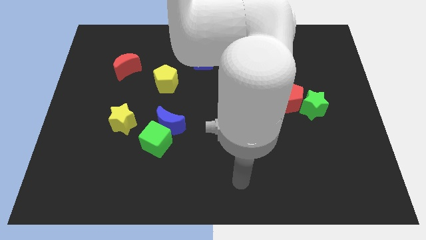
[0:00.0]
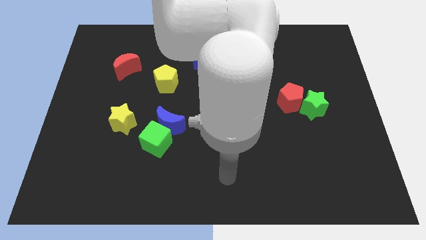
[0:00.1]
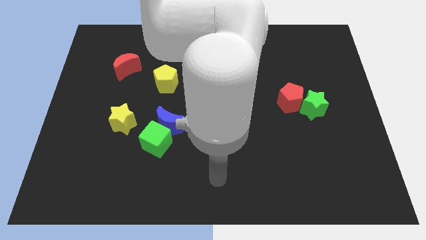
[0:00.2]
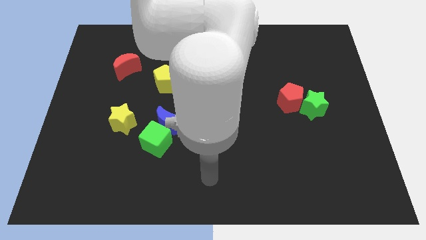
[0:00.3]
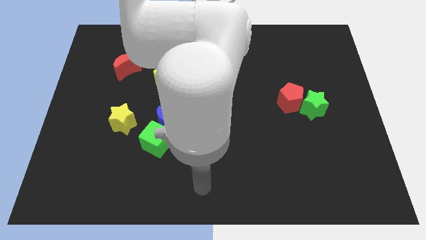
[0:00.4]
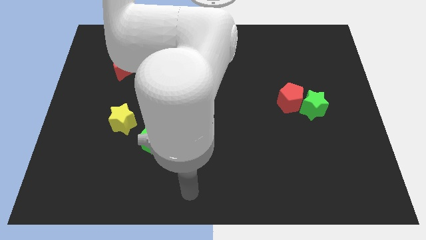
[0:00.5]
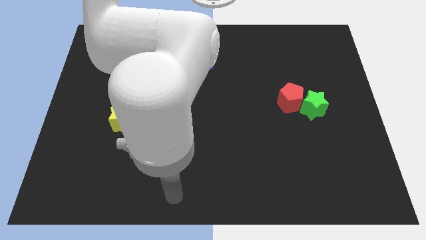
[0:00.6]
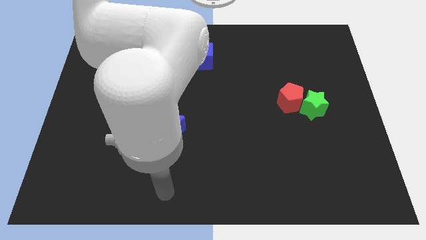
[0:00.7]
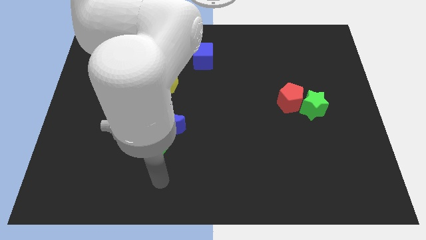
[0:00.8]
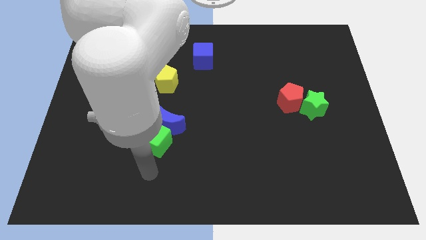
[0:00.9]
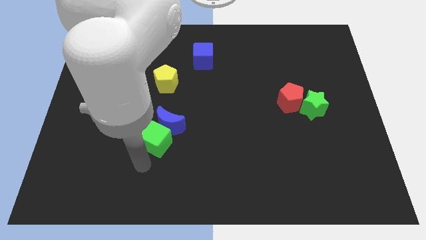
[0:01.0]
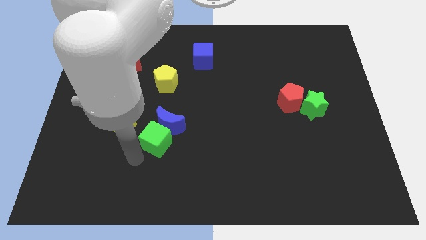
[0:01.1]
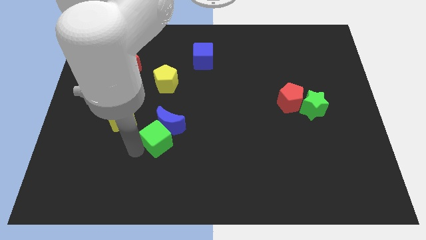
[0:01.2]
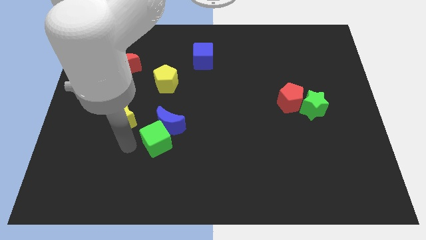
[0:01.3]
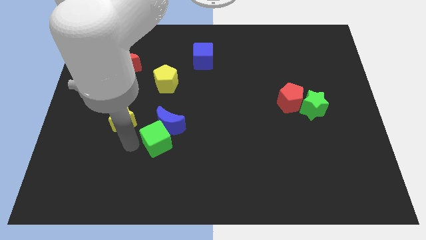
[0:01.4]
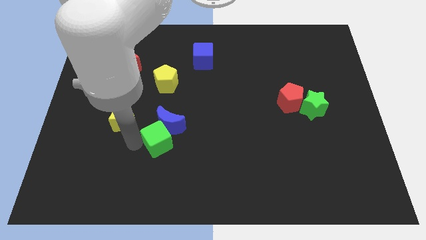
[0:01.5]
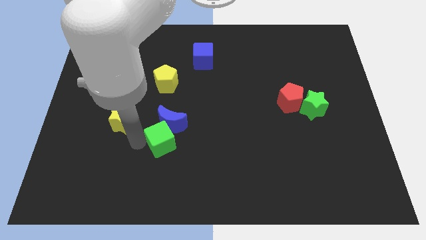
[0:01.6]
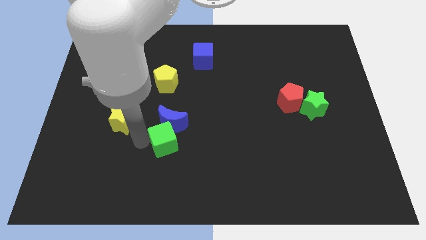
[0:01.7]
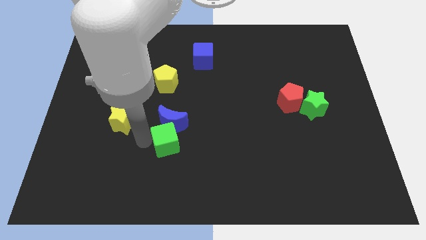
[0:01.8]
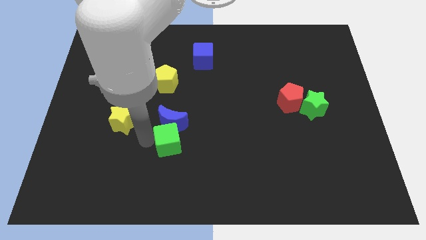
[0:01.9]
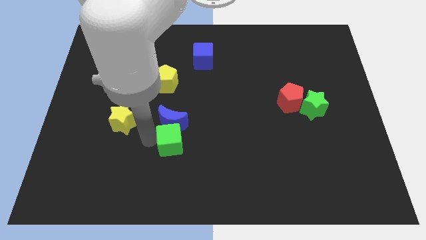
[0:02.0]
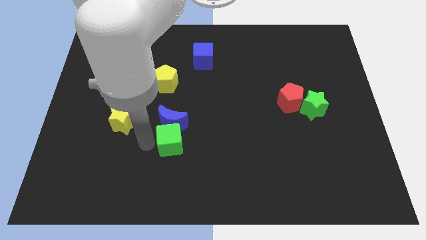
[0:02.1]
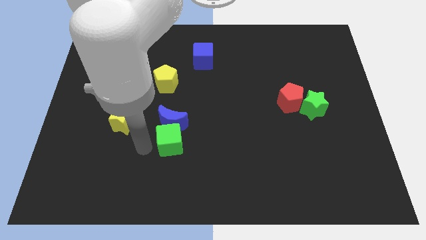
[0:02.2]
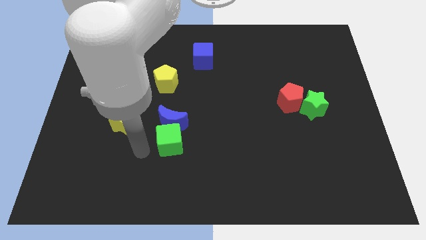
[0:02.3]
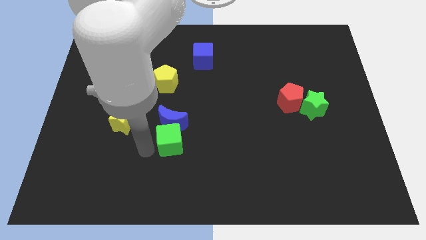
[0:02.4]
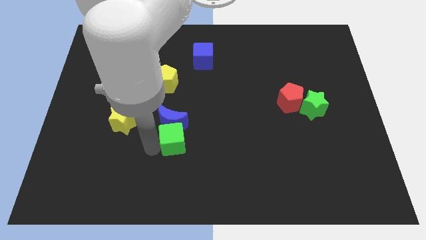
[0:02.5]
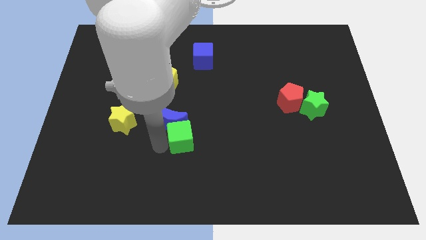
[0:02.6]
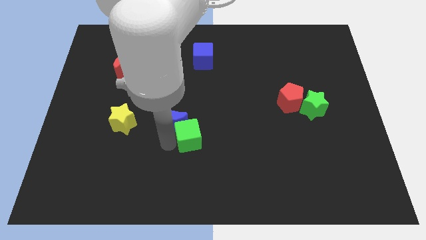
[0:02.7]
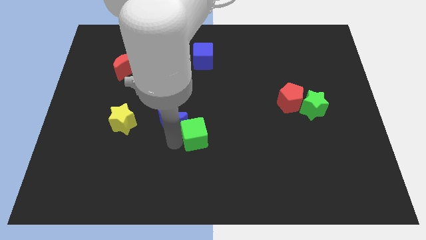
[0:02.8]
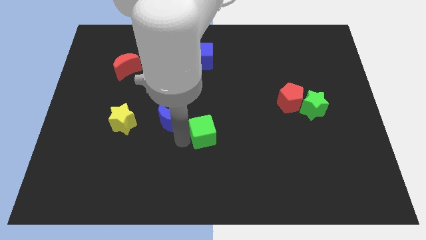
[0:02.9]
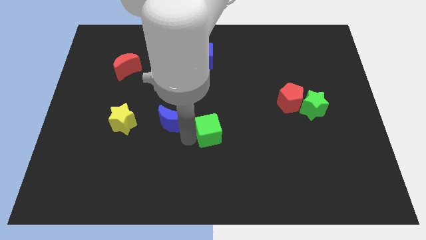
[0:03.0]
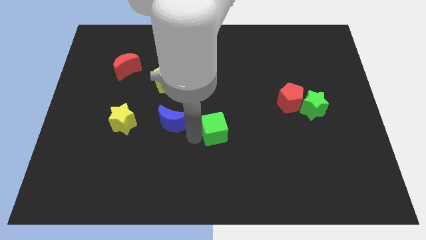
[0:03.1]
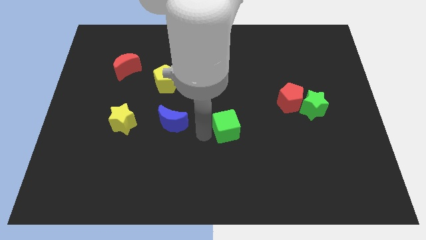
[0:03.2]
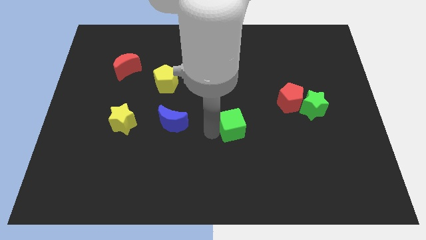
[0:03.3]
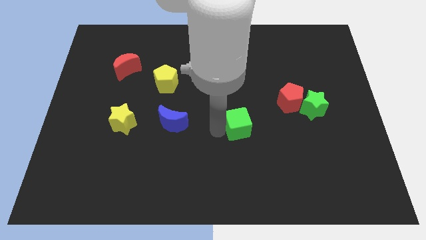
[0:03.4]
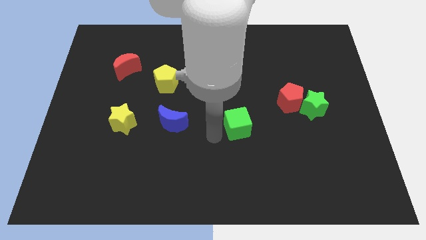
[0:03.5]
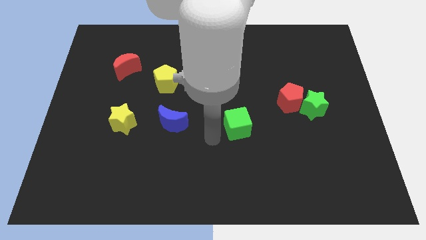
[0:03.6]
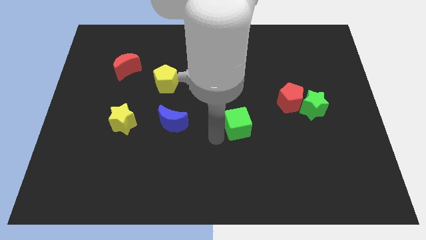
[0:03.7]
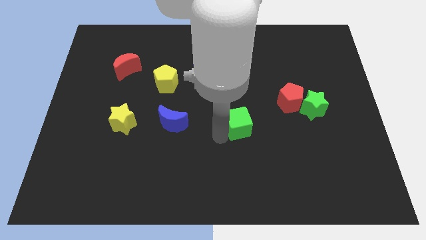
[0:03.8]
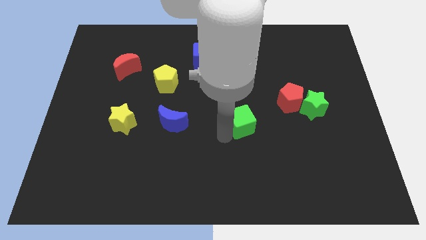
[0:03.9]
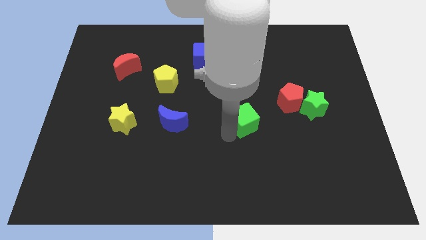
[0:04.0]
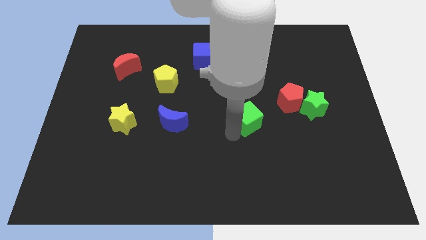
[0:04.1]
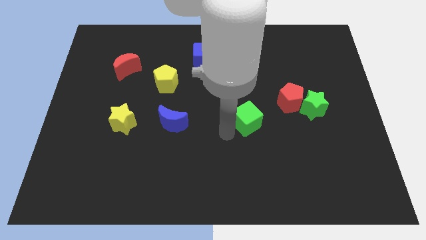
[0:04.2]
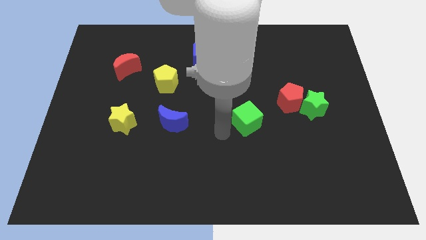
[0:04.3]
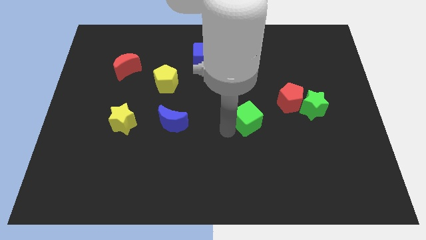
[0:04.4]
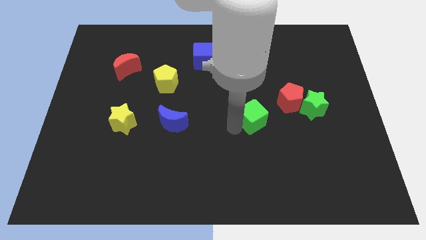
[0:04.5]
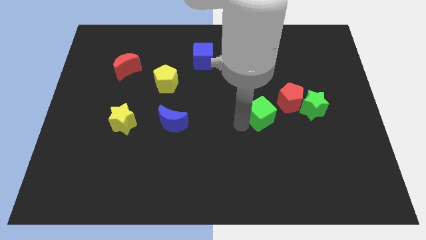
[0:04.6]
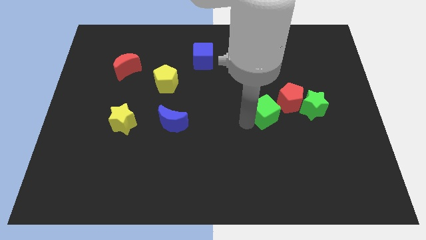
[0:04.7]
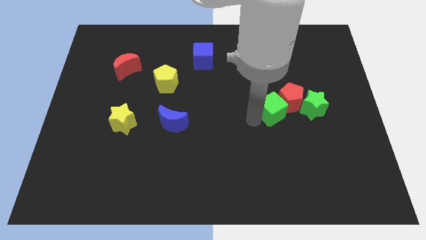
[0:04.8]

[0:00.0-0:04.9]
put the green cube next to the red pentagon

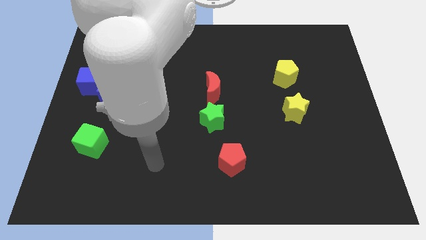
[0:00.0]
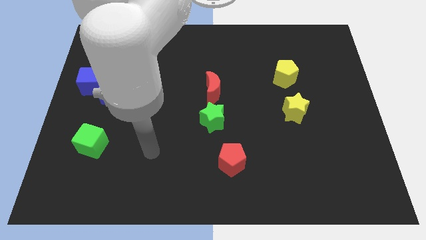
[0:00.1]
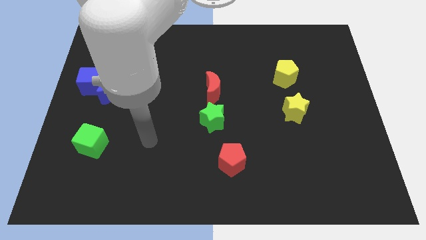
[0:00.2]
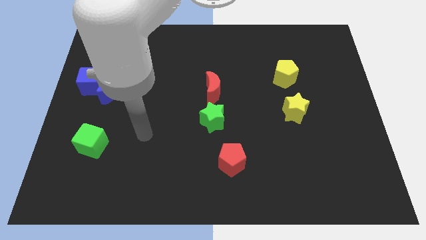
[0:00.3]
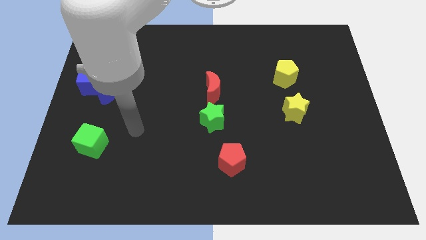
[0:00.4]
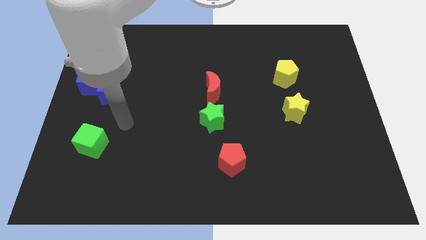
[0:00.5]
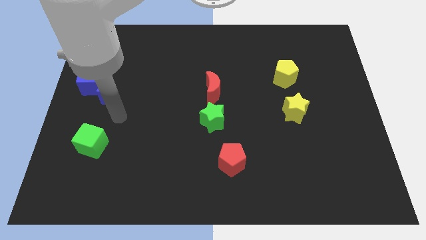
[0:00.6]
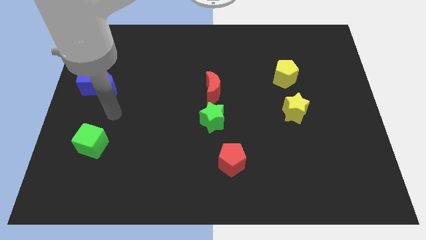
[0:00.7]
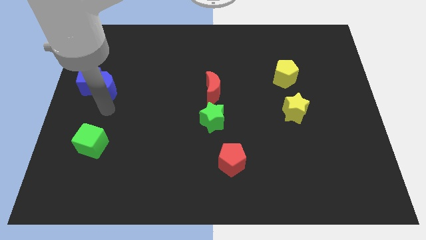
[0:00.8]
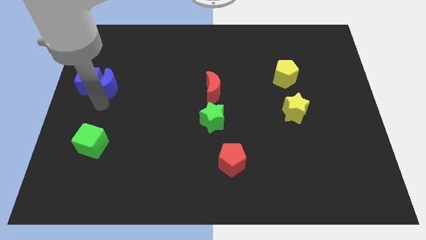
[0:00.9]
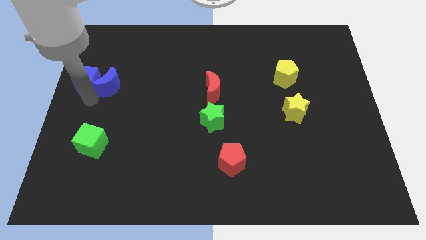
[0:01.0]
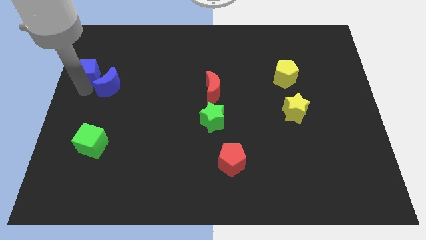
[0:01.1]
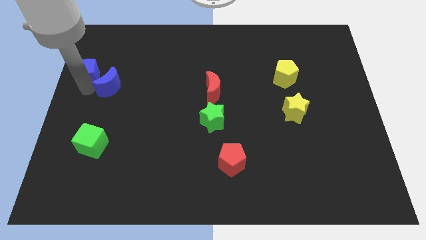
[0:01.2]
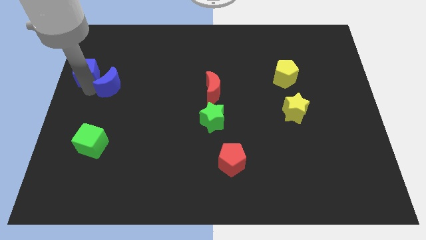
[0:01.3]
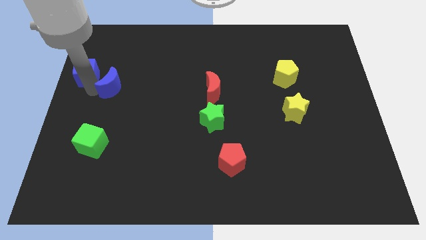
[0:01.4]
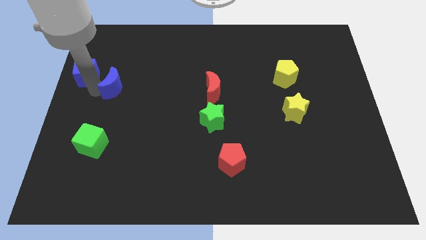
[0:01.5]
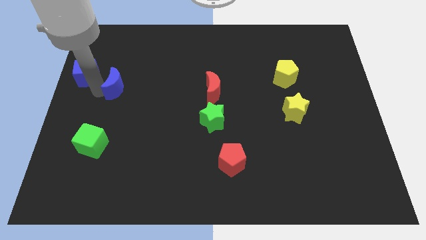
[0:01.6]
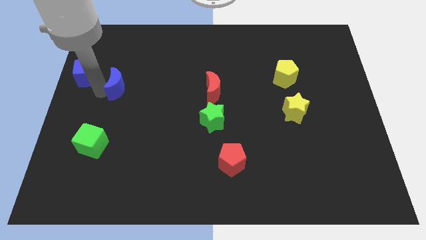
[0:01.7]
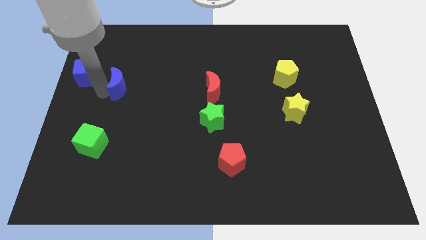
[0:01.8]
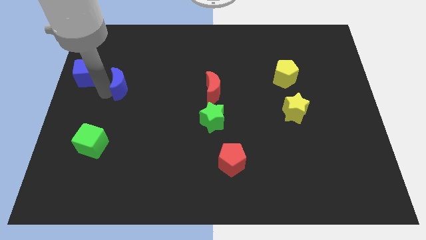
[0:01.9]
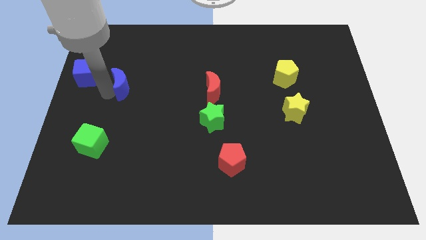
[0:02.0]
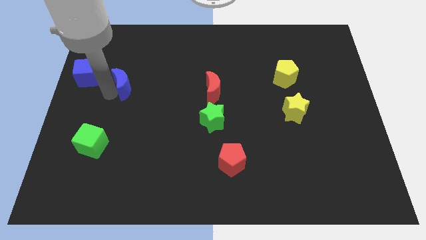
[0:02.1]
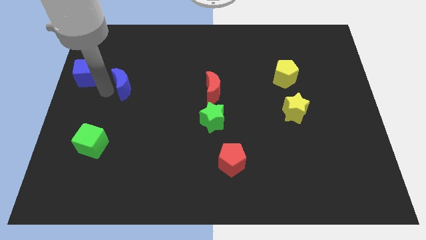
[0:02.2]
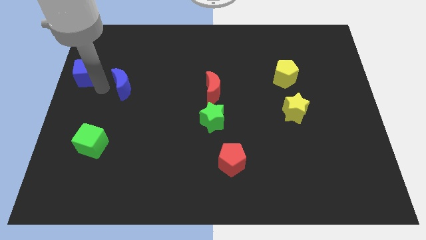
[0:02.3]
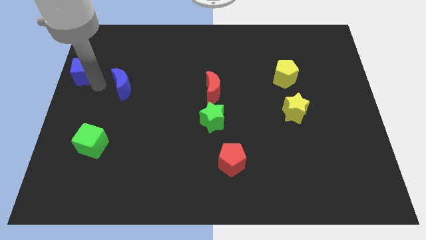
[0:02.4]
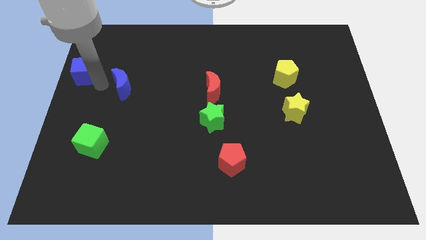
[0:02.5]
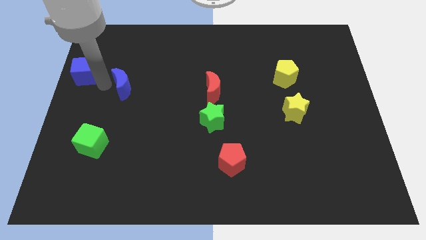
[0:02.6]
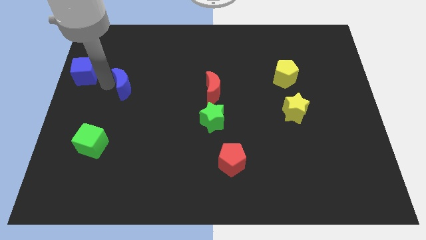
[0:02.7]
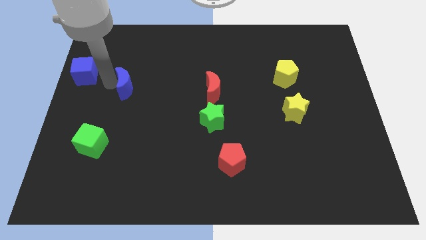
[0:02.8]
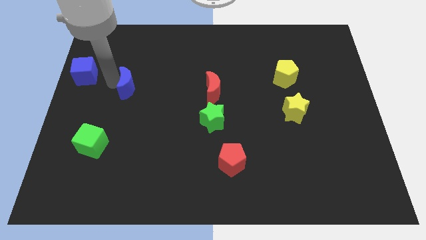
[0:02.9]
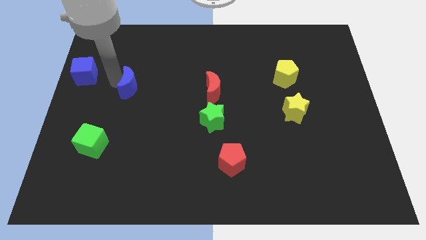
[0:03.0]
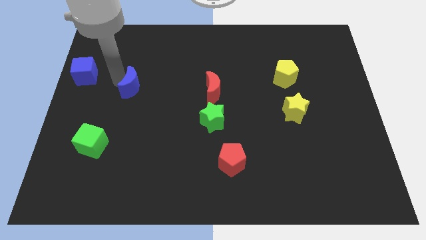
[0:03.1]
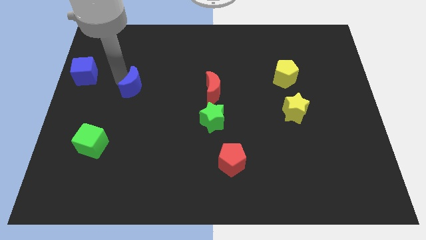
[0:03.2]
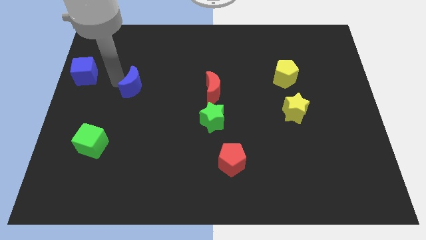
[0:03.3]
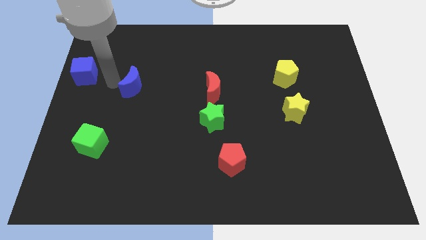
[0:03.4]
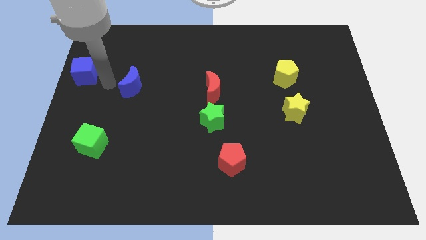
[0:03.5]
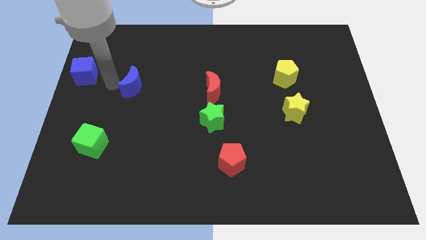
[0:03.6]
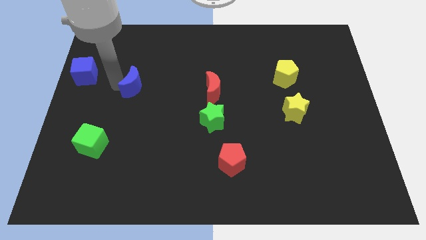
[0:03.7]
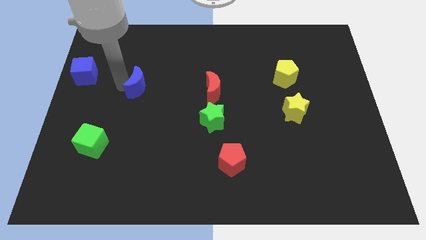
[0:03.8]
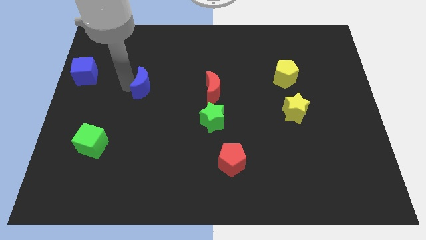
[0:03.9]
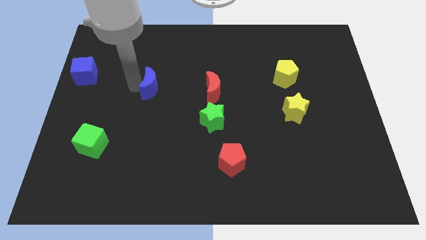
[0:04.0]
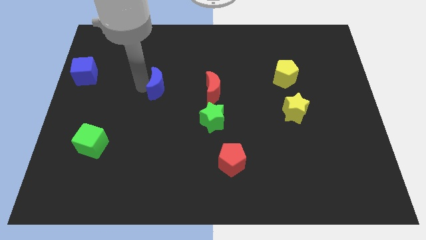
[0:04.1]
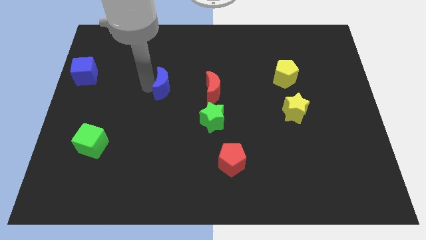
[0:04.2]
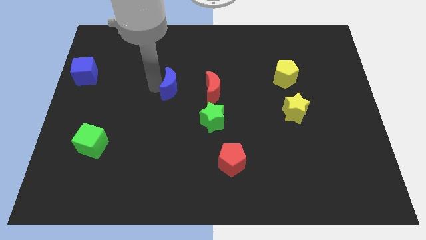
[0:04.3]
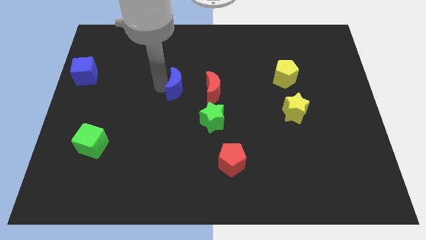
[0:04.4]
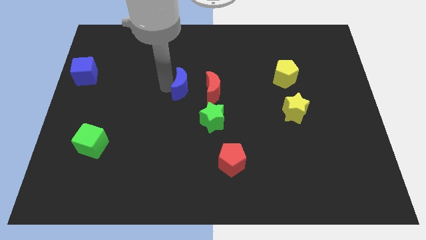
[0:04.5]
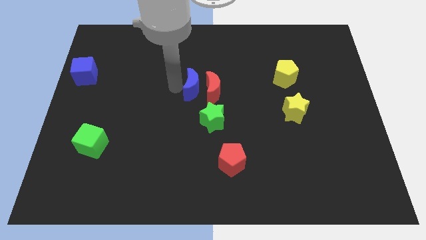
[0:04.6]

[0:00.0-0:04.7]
put the blue moon next to the red moon
